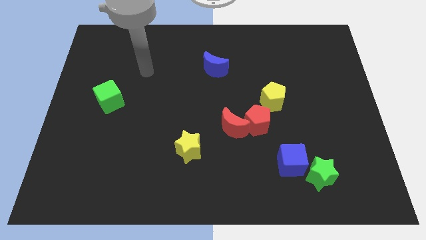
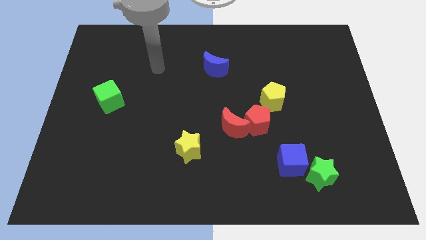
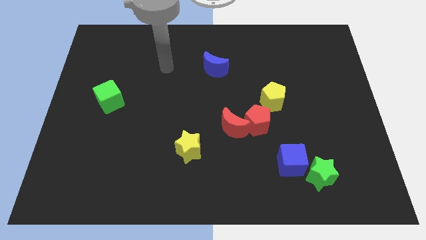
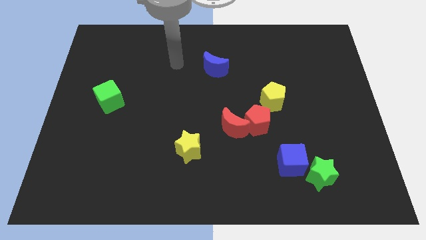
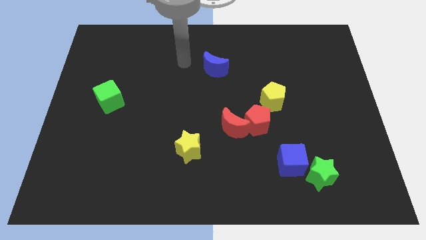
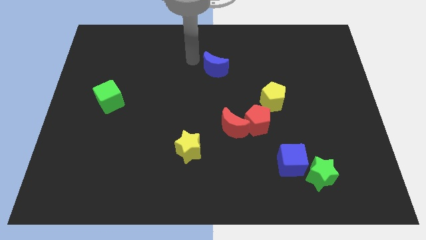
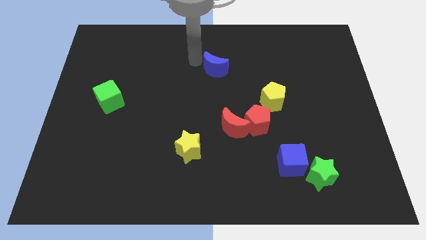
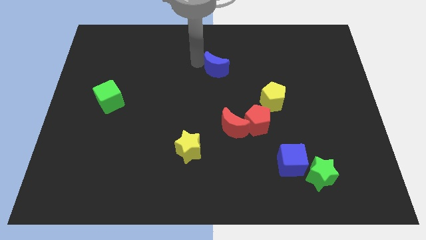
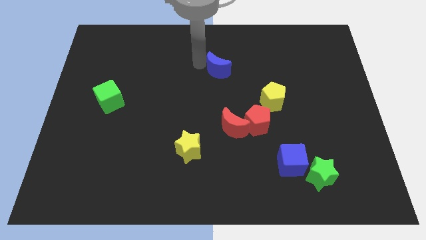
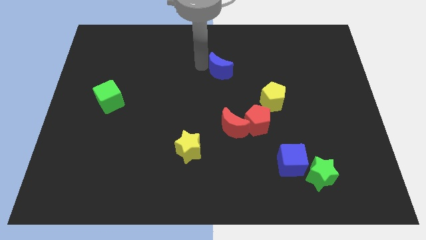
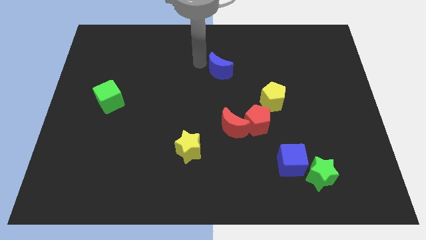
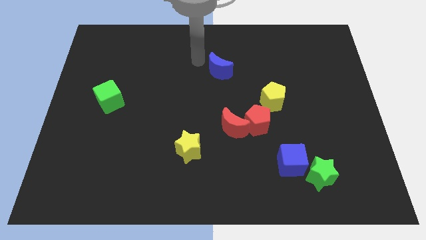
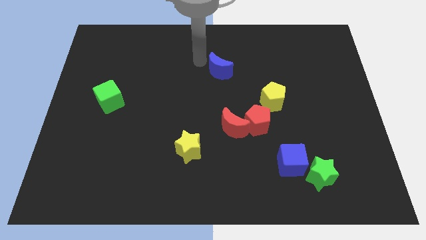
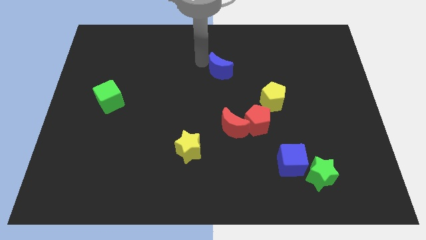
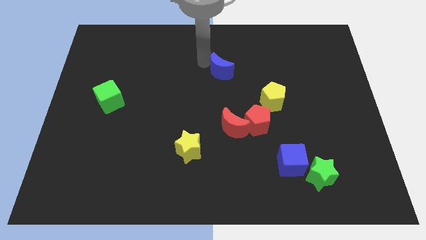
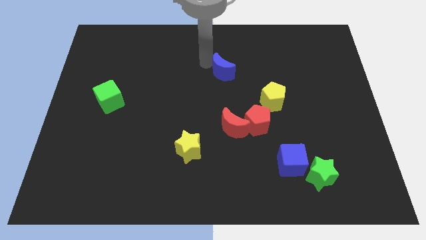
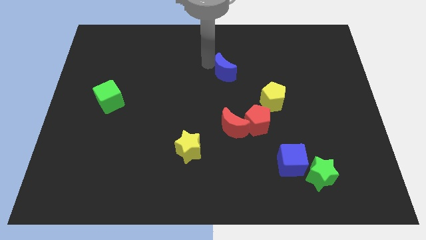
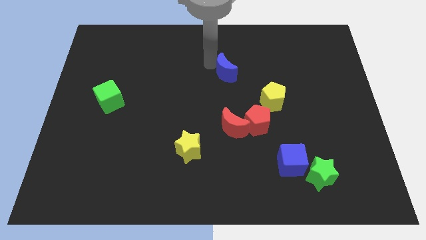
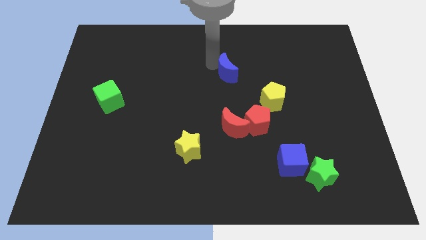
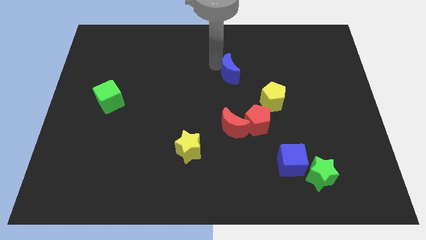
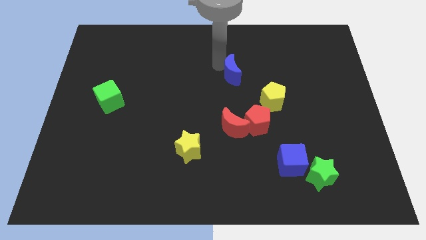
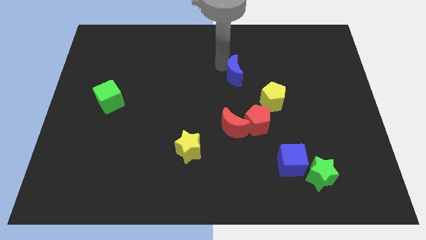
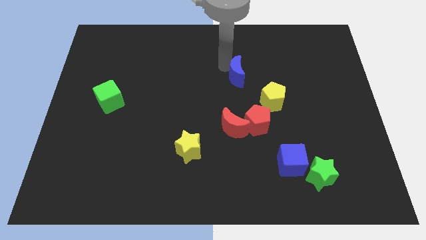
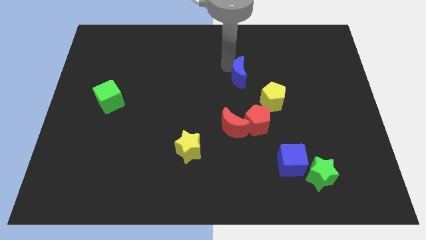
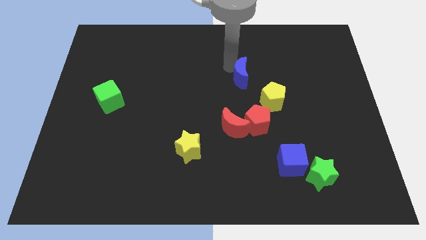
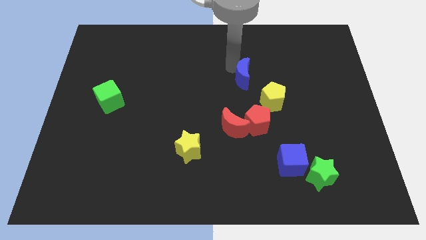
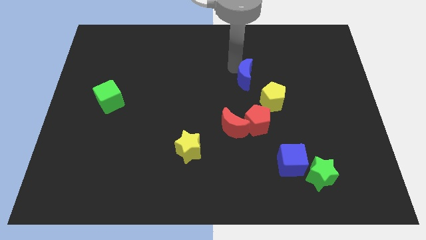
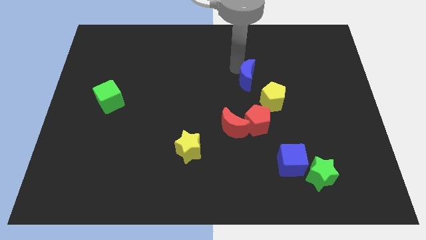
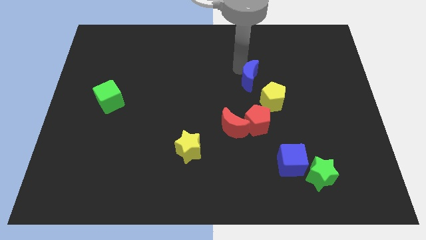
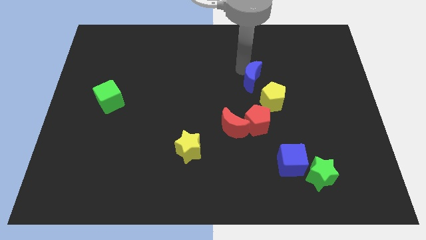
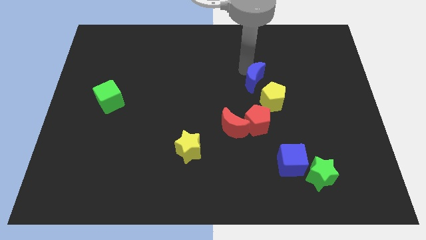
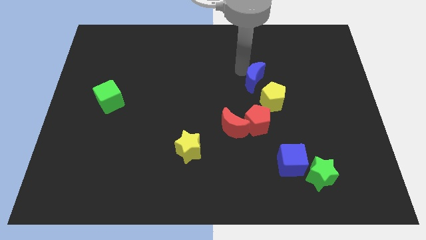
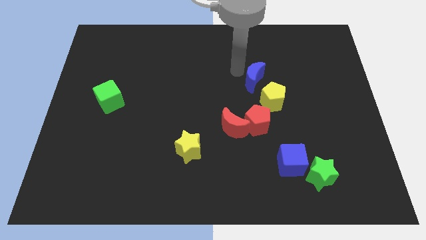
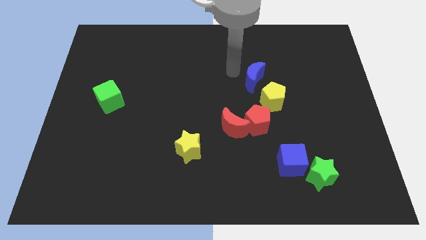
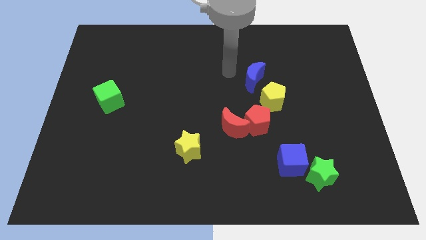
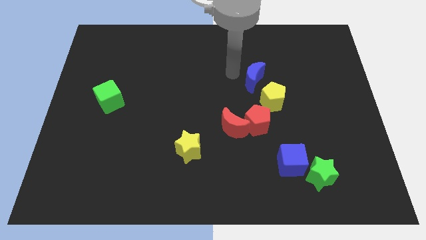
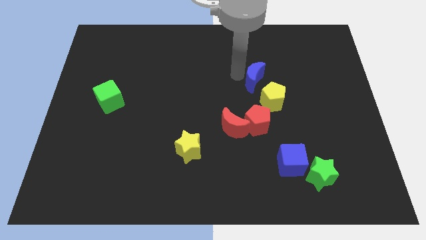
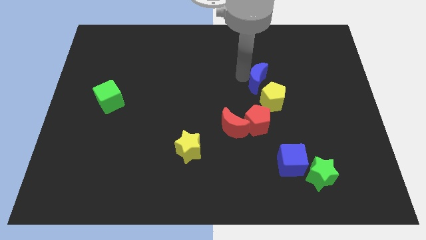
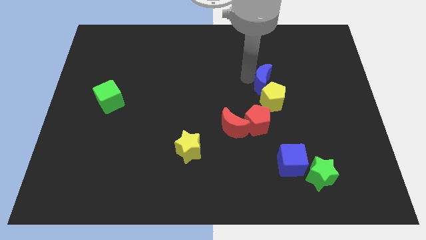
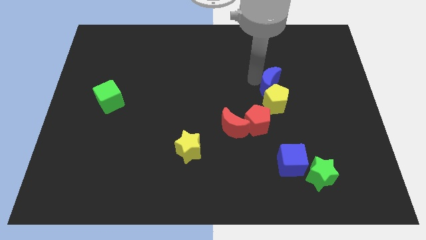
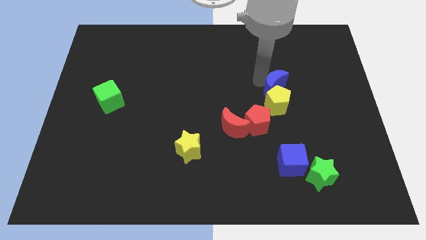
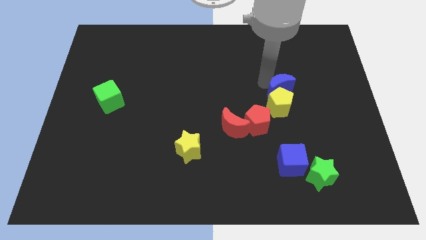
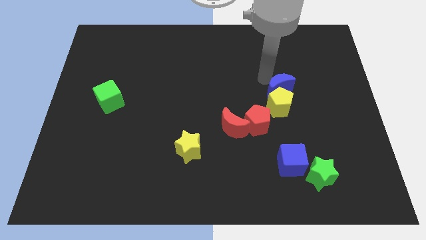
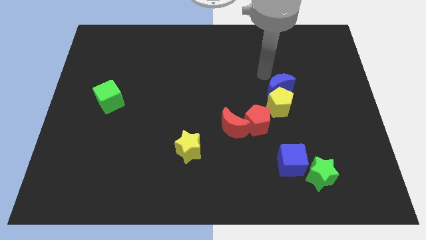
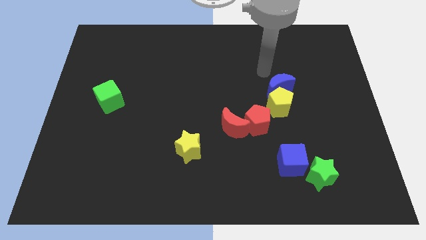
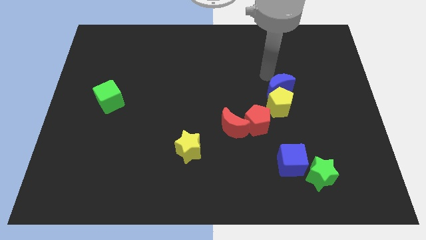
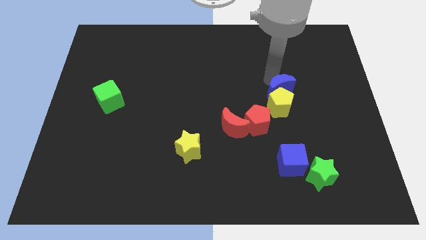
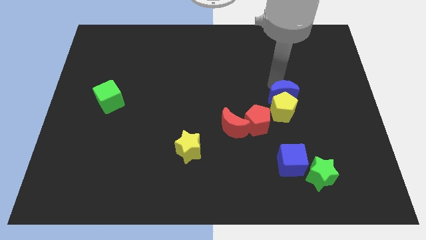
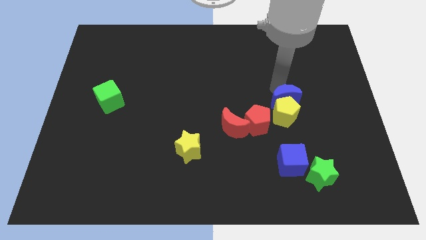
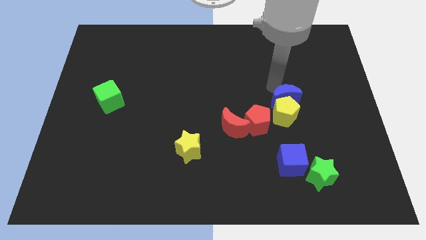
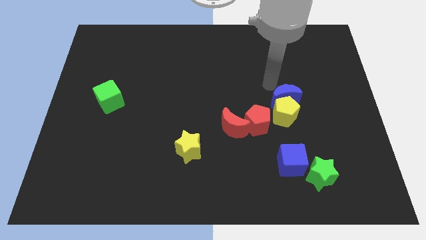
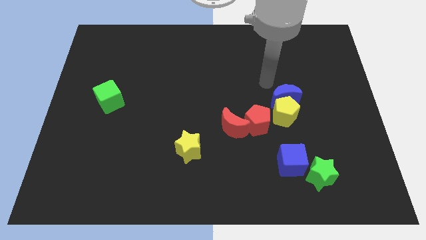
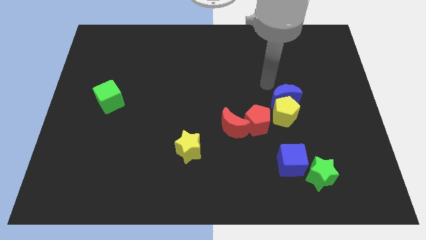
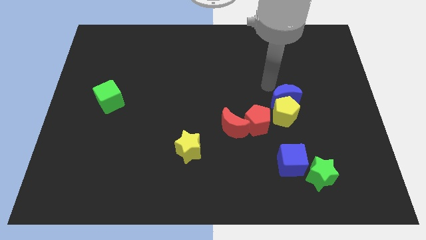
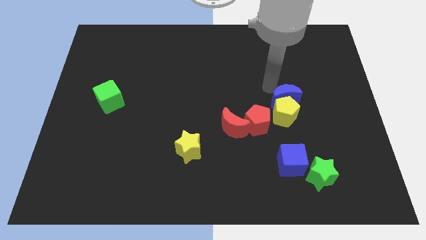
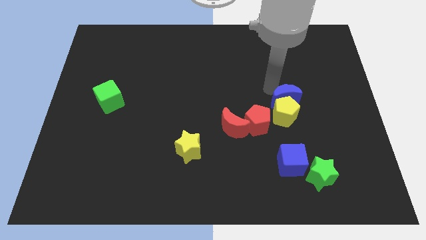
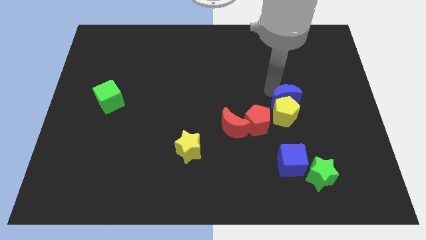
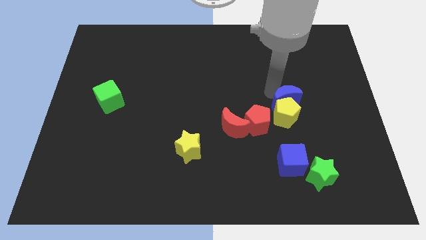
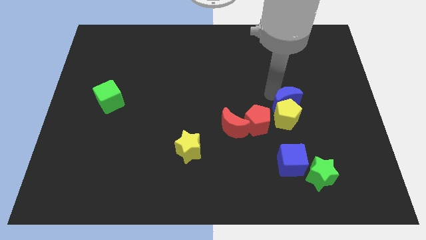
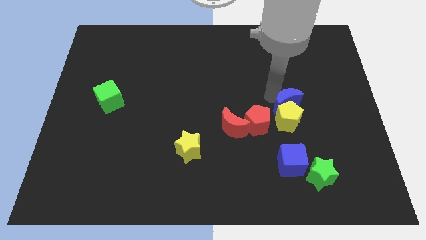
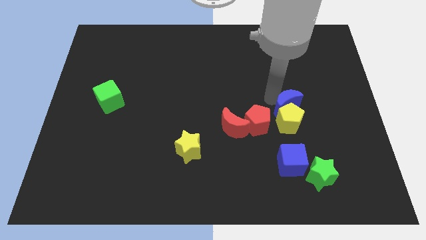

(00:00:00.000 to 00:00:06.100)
push the blue moon down and to the right

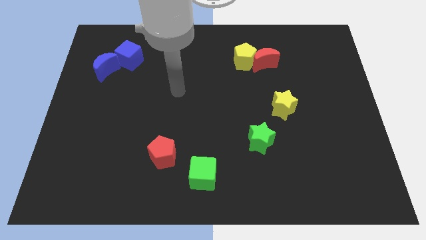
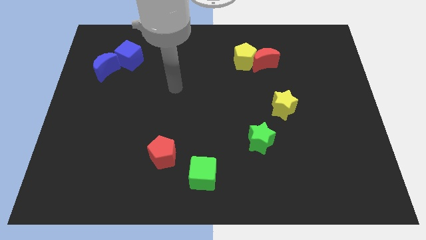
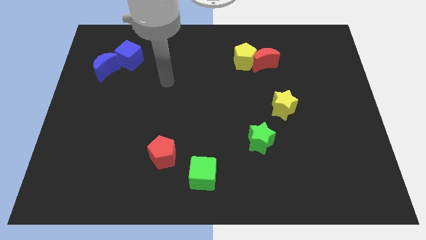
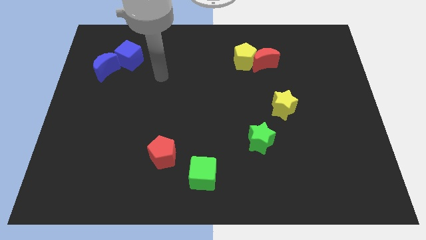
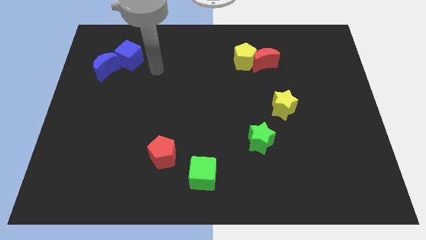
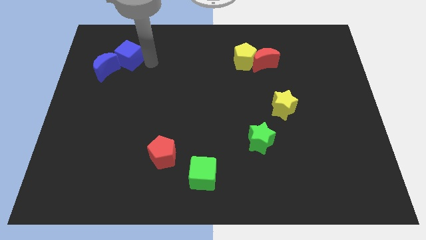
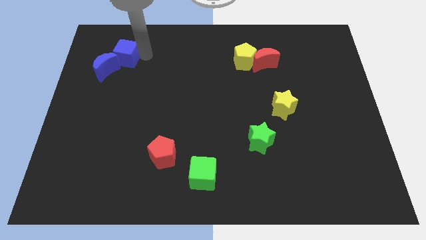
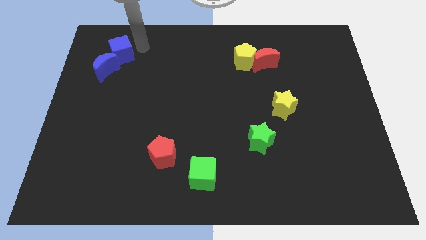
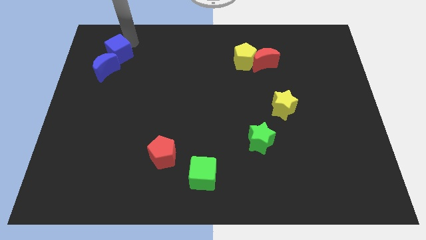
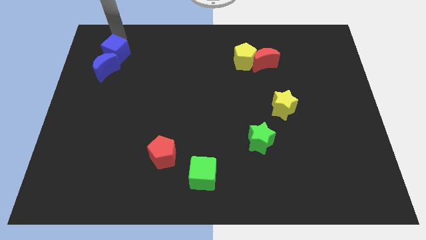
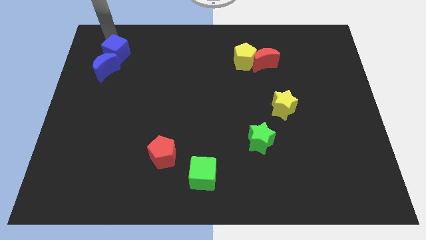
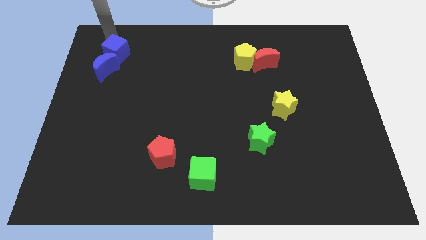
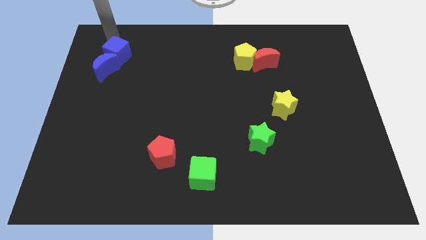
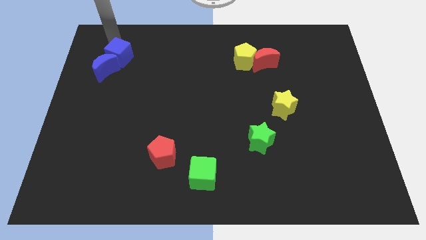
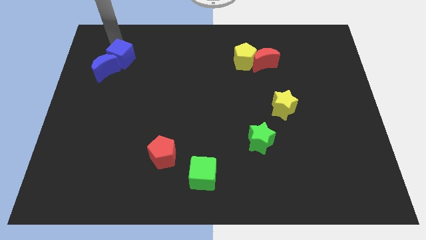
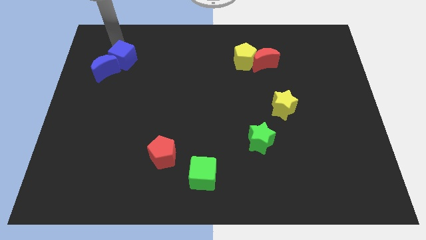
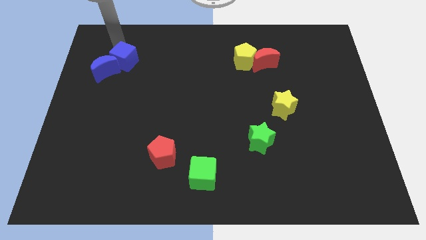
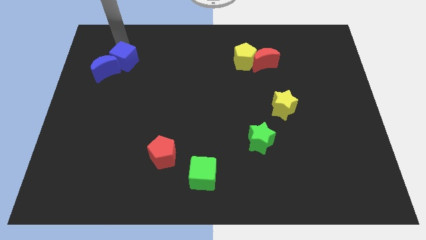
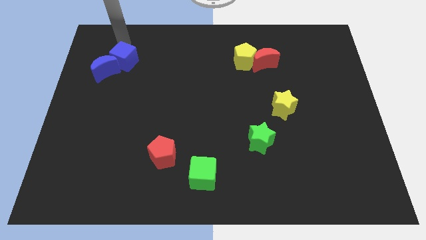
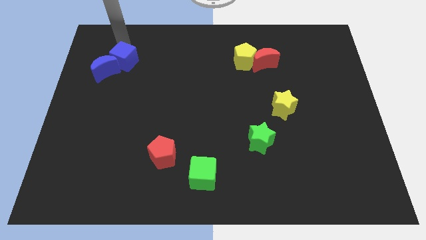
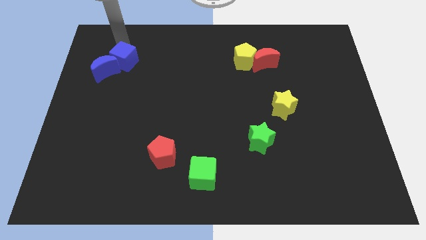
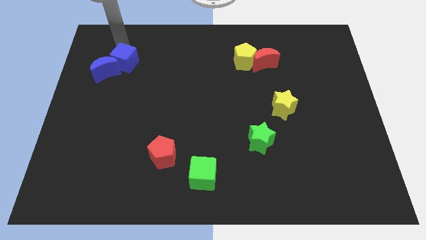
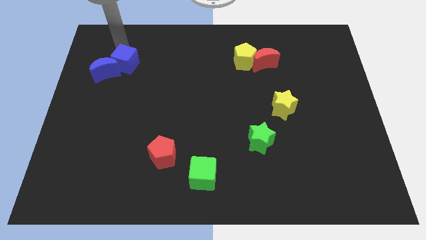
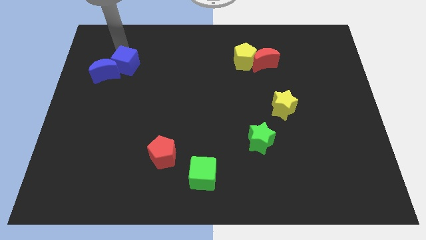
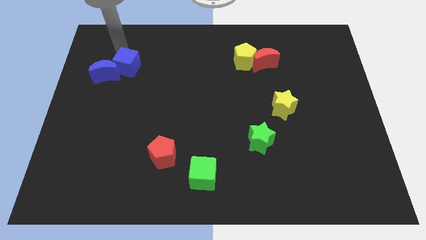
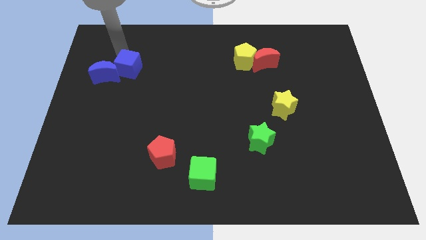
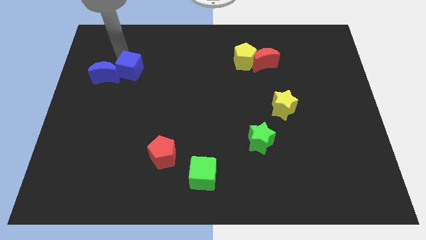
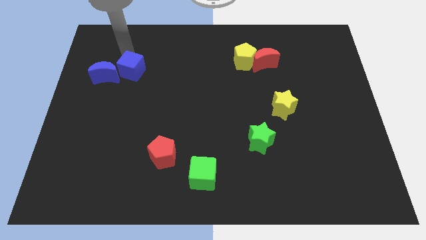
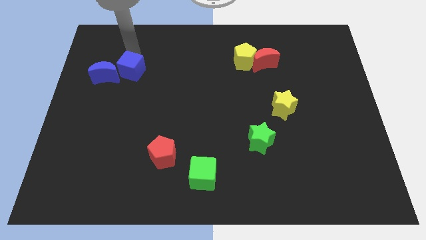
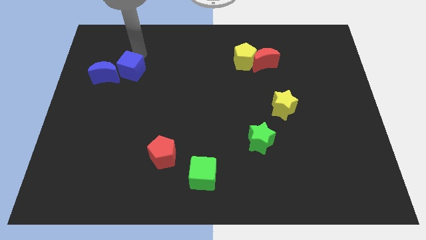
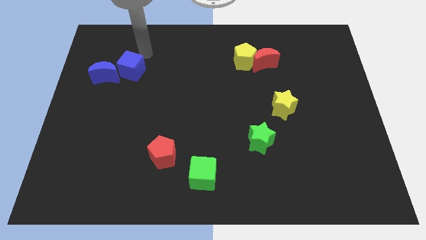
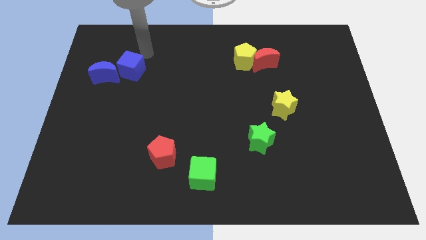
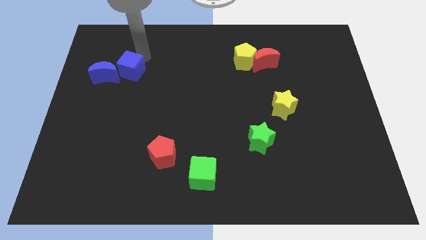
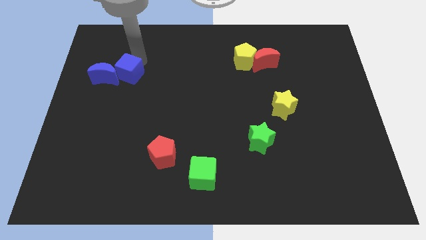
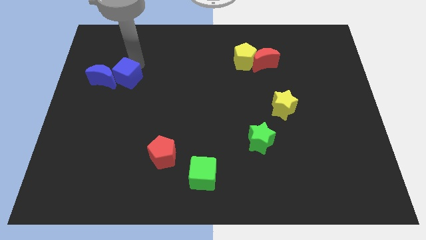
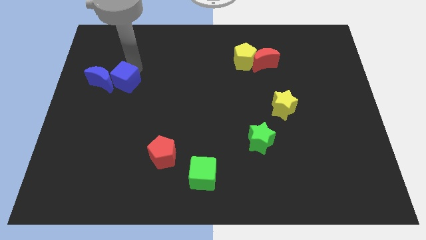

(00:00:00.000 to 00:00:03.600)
push the blue cube a little bit down
